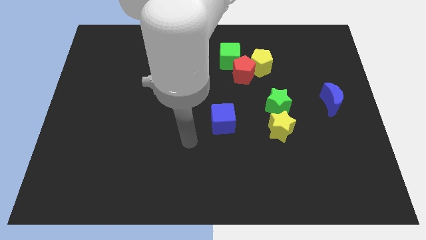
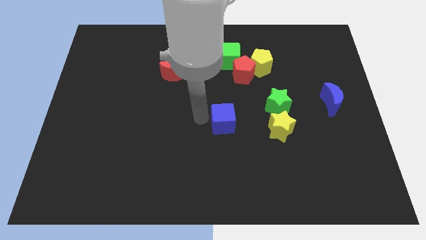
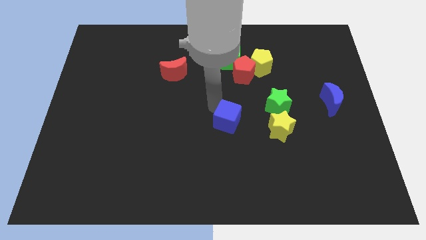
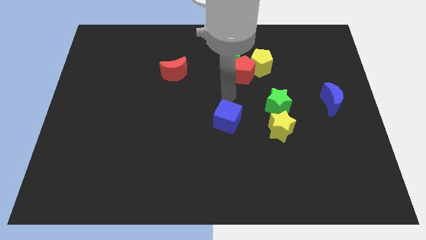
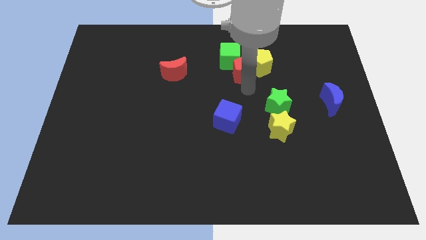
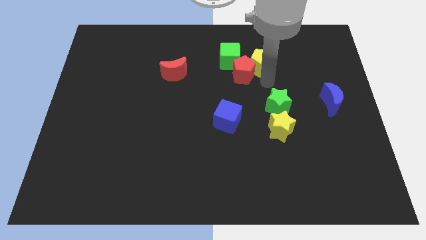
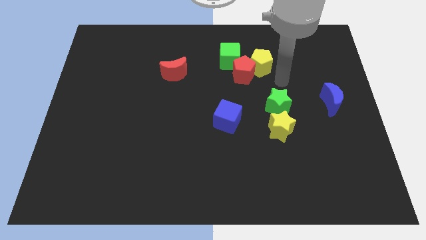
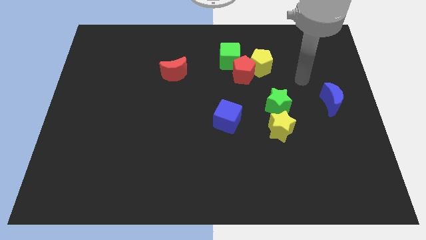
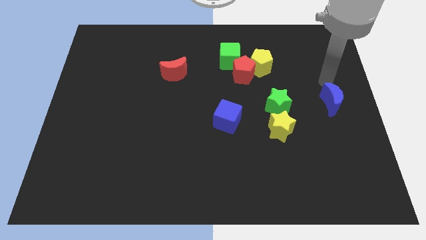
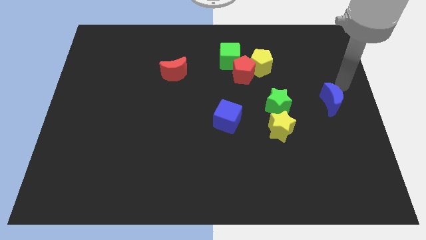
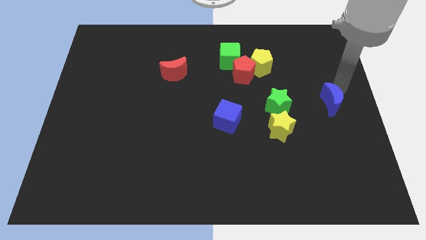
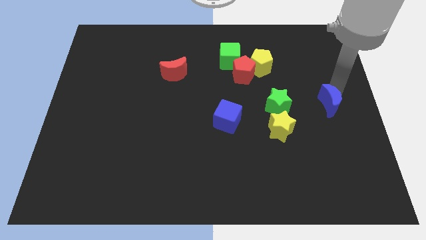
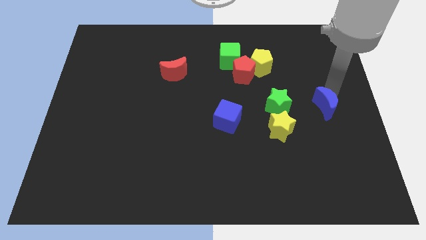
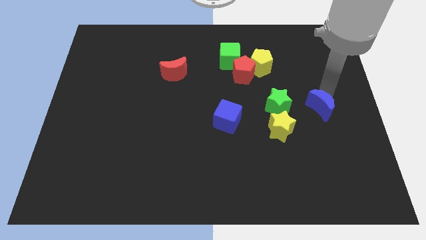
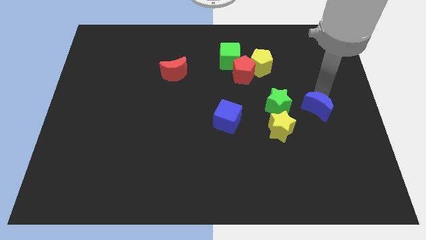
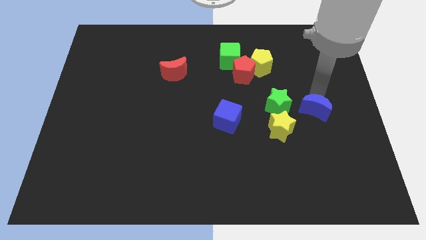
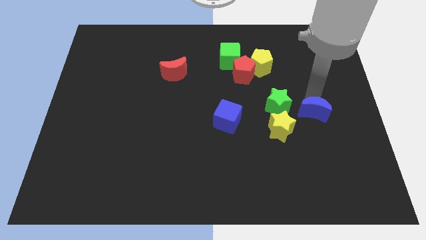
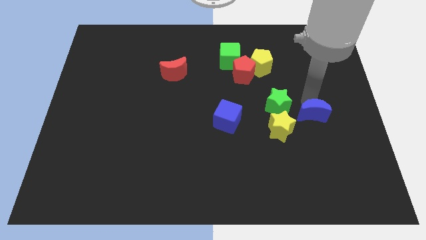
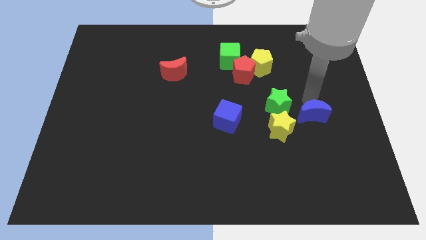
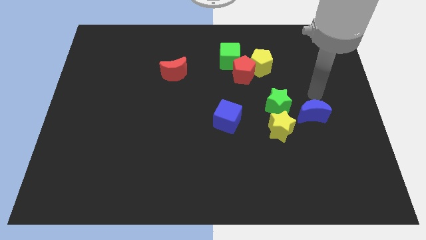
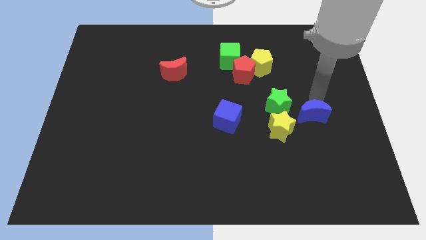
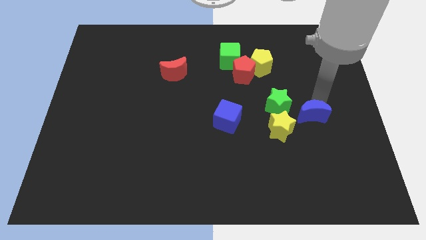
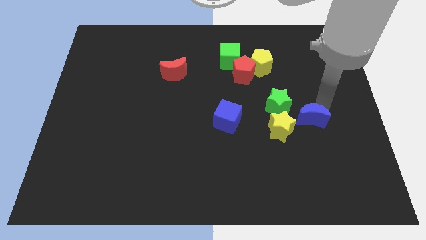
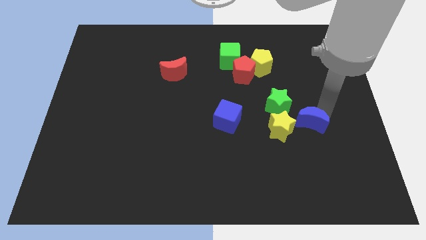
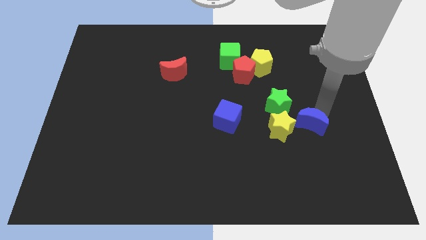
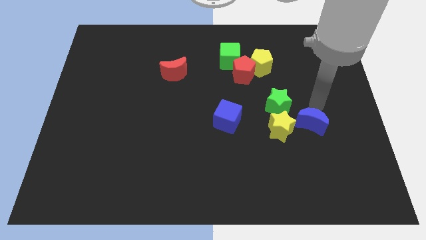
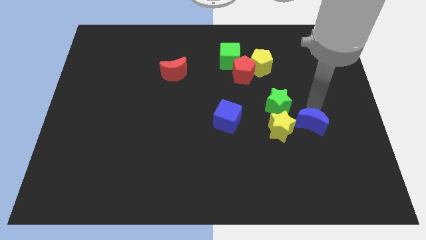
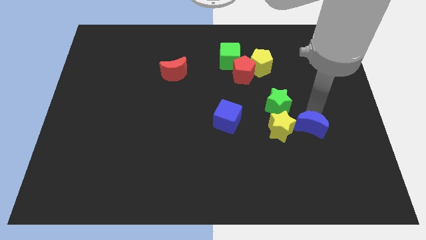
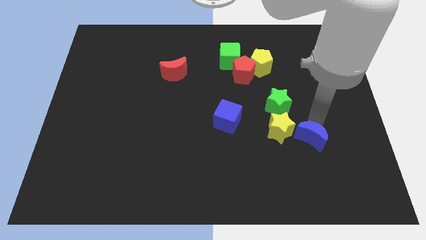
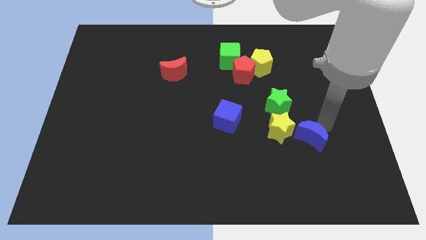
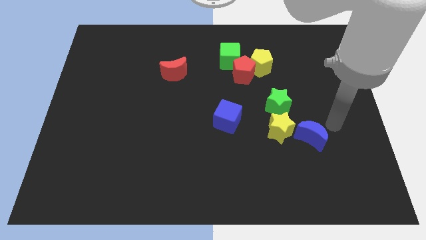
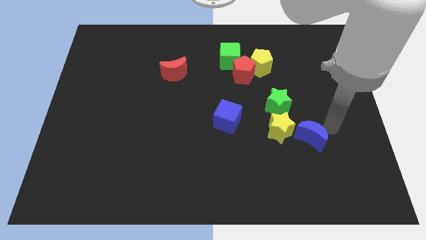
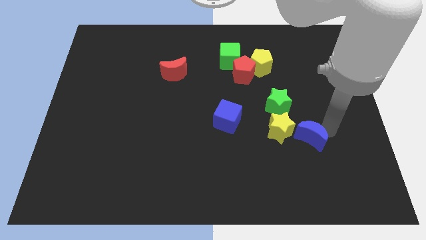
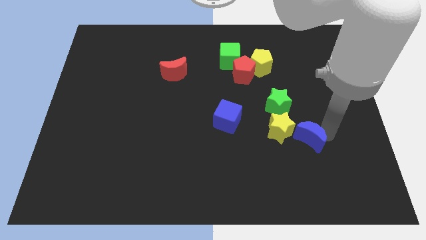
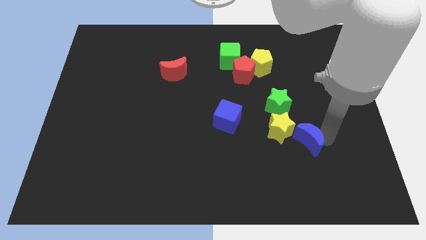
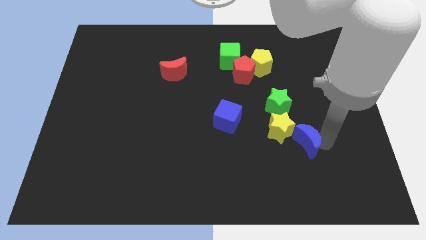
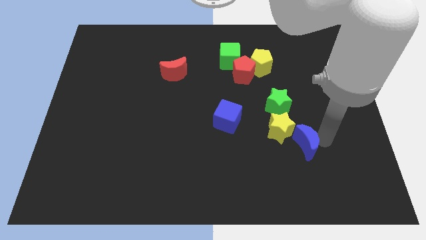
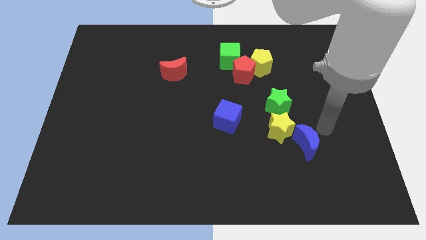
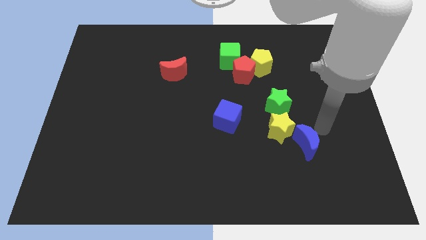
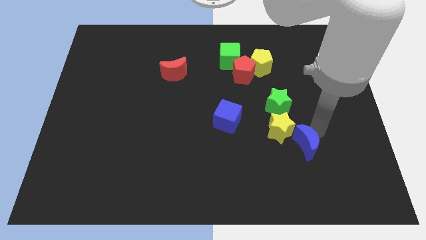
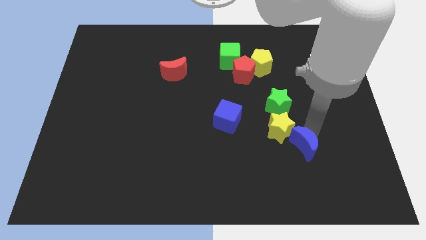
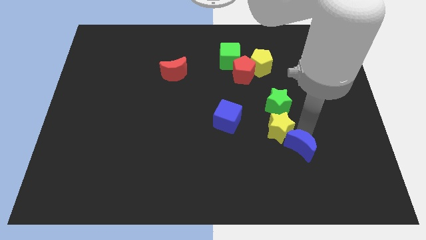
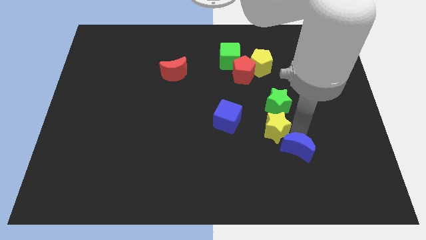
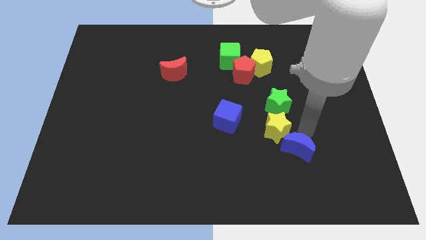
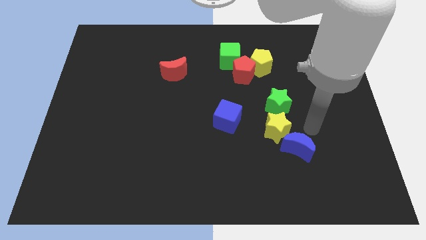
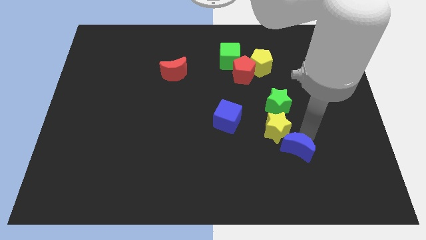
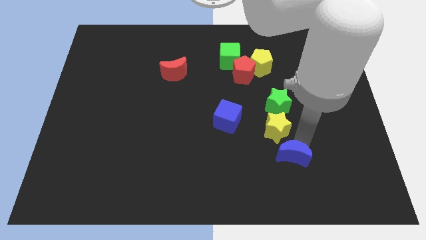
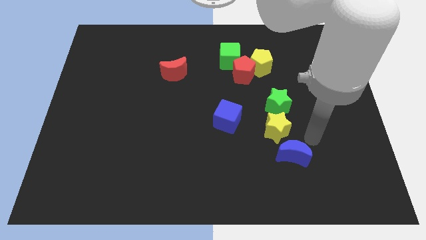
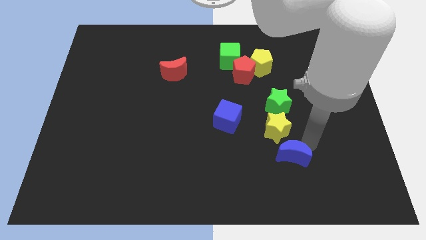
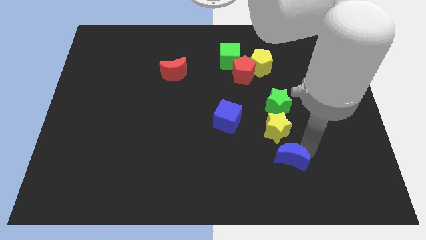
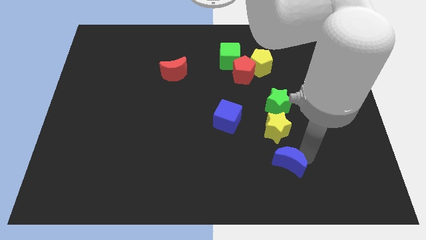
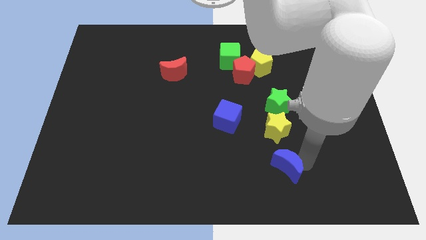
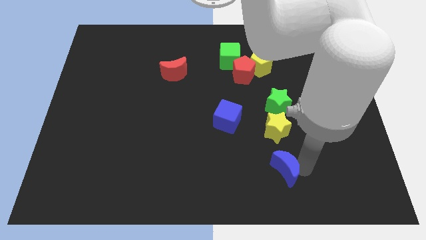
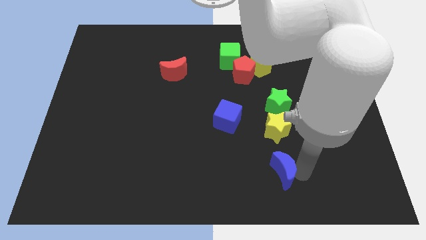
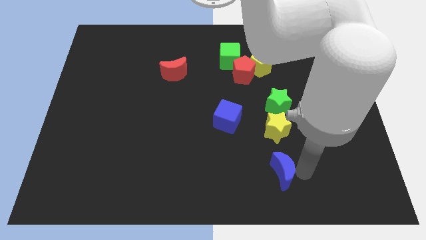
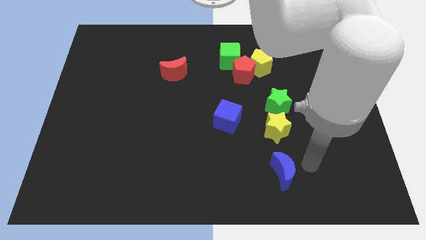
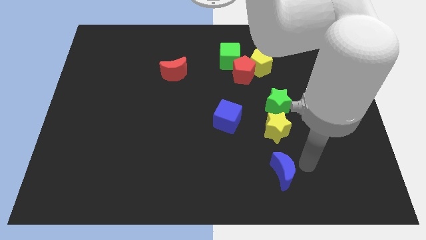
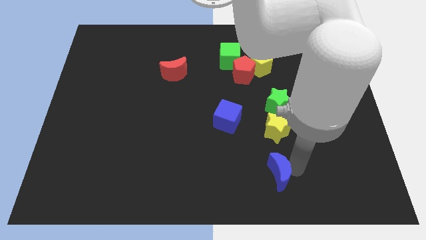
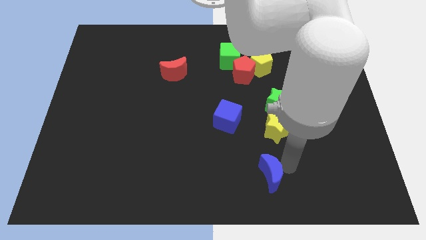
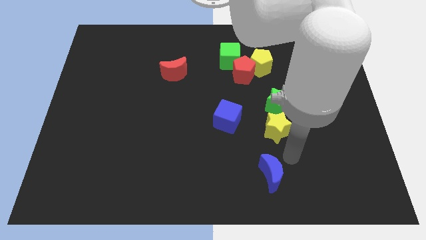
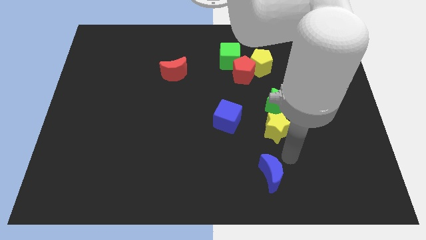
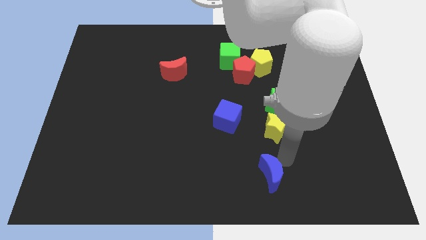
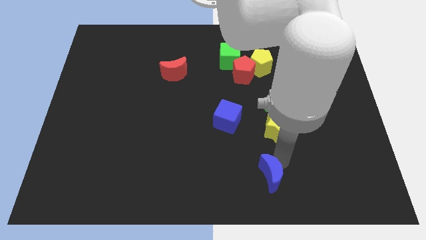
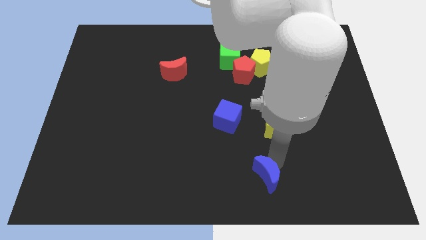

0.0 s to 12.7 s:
put the blue moon to the bottom side
